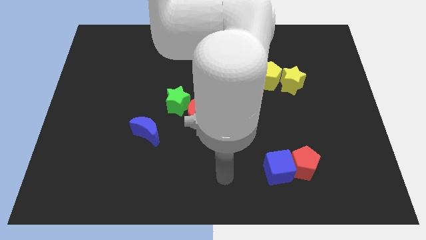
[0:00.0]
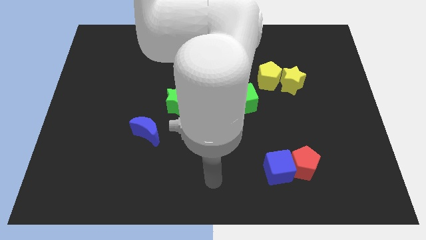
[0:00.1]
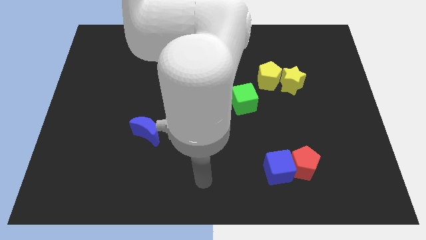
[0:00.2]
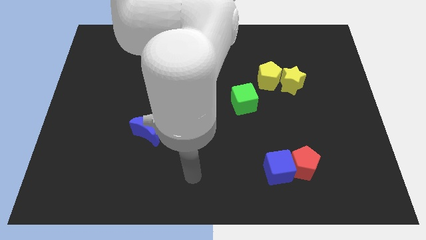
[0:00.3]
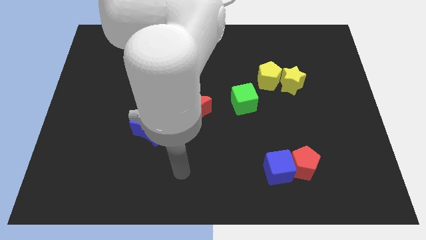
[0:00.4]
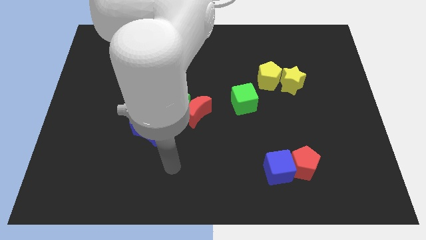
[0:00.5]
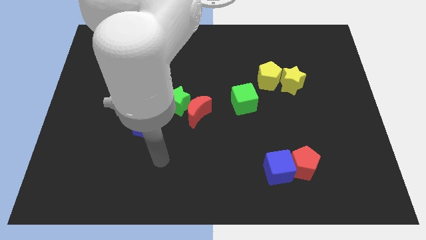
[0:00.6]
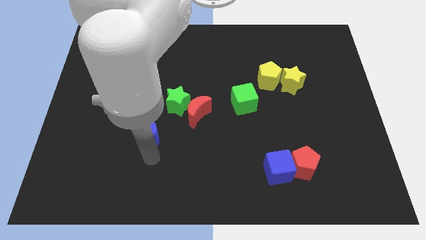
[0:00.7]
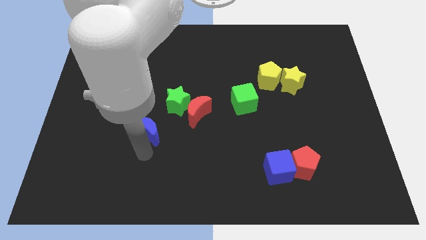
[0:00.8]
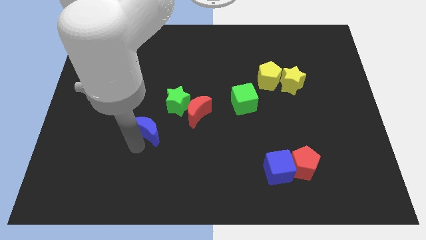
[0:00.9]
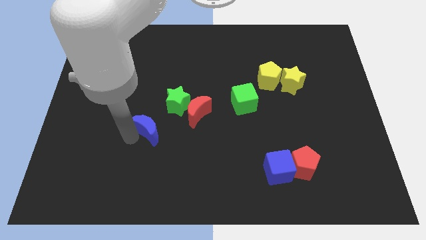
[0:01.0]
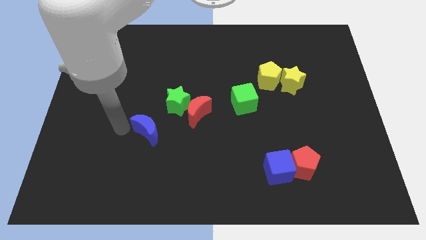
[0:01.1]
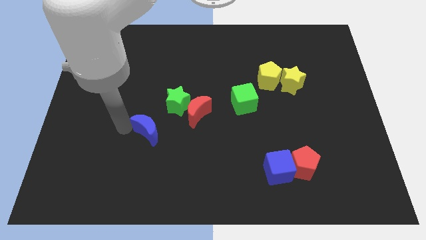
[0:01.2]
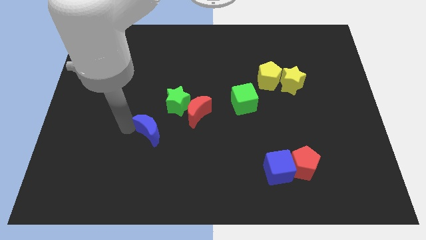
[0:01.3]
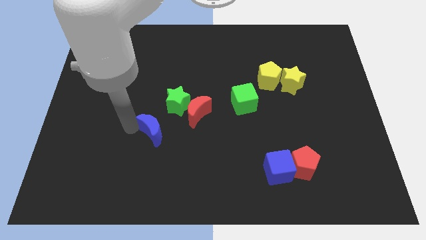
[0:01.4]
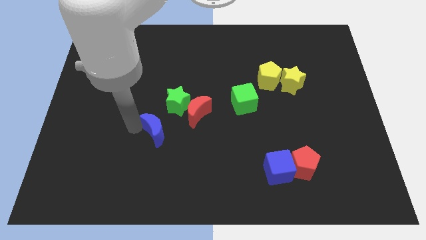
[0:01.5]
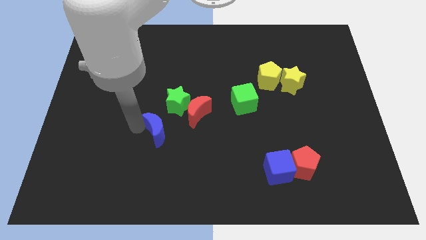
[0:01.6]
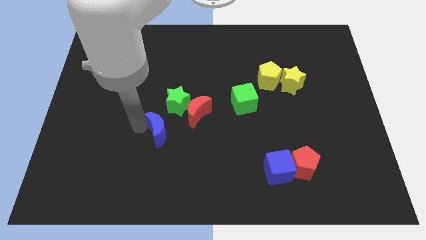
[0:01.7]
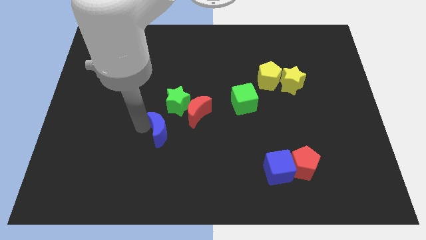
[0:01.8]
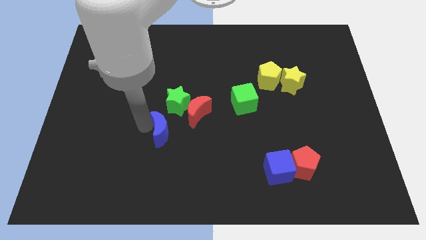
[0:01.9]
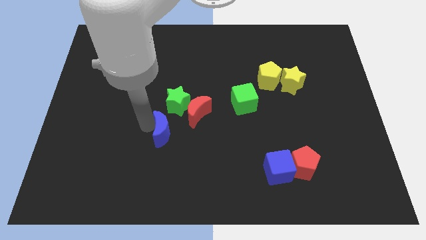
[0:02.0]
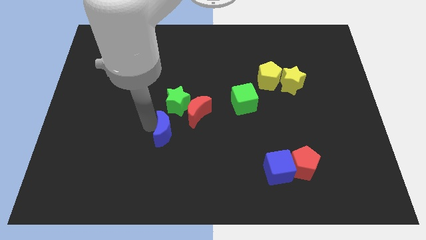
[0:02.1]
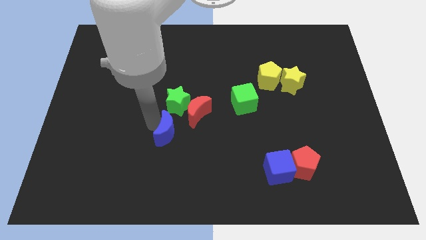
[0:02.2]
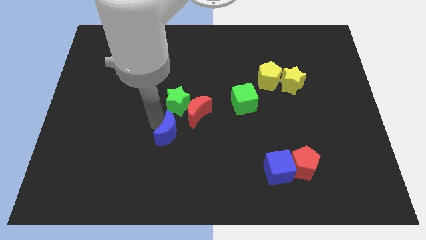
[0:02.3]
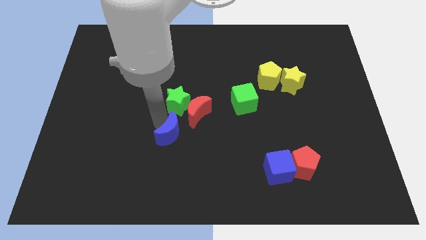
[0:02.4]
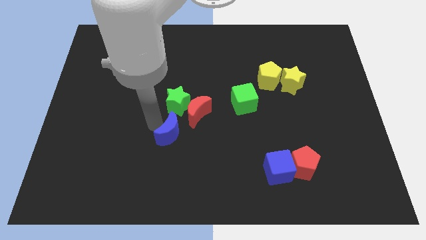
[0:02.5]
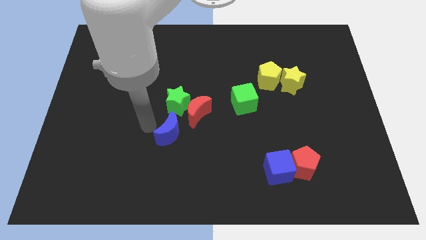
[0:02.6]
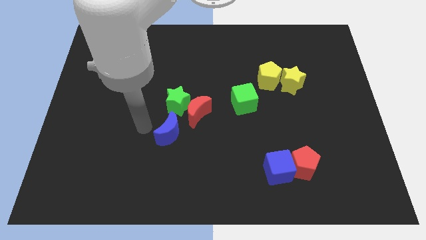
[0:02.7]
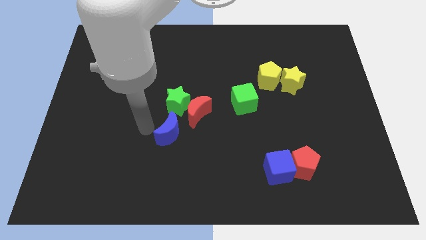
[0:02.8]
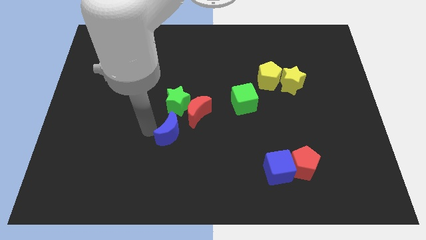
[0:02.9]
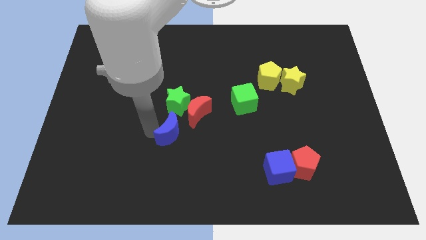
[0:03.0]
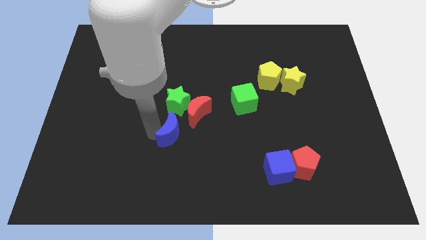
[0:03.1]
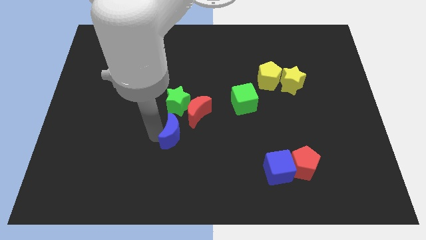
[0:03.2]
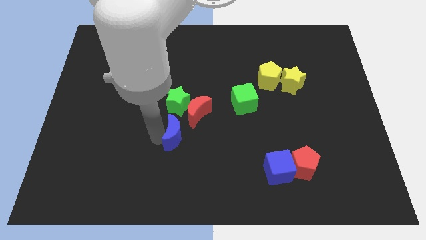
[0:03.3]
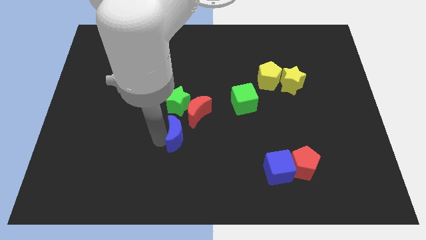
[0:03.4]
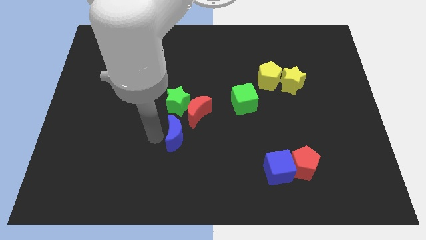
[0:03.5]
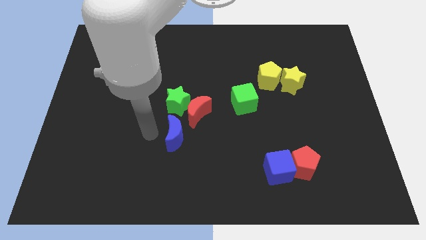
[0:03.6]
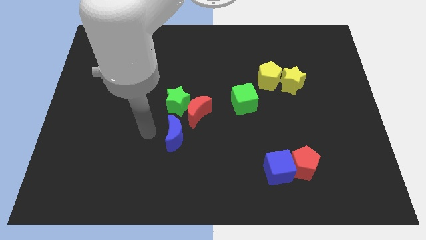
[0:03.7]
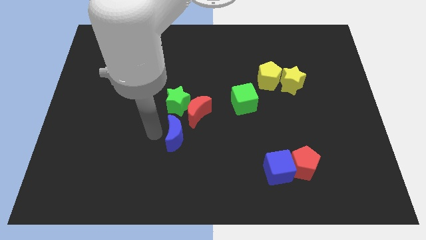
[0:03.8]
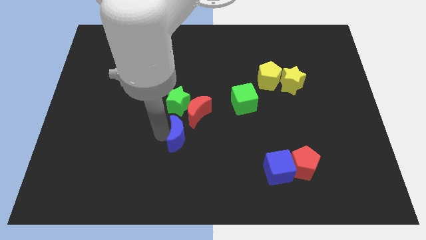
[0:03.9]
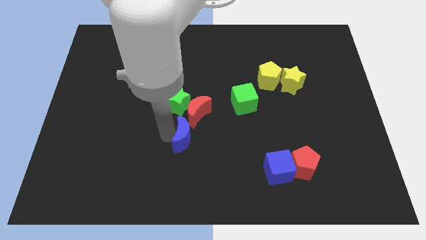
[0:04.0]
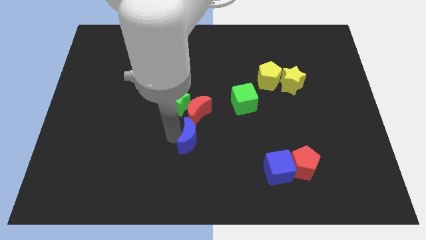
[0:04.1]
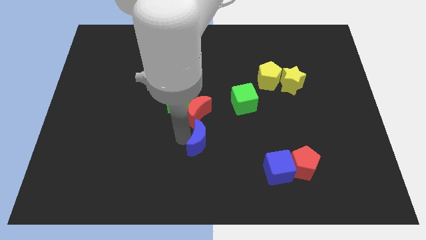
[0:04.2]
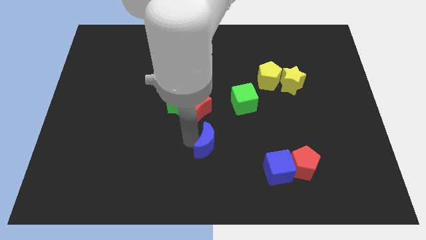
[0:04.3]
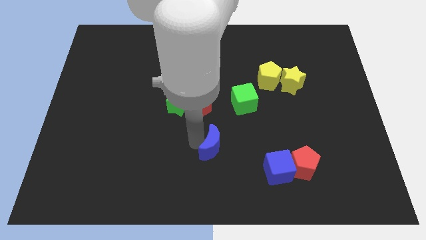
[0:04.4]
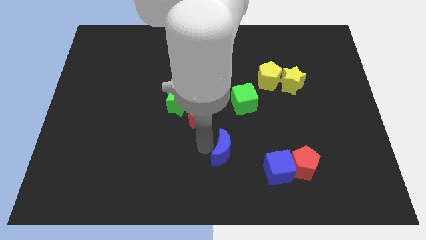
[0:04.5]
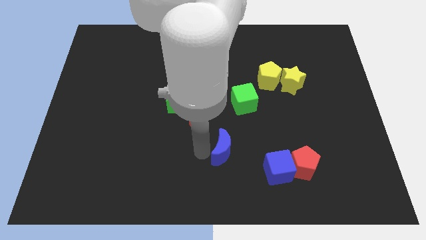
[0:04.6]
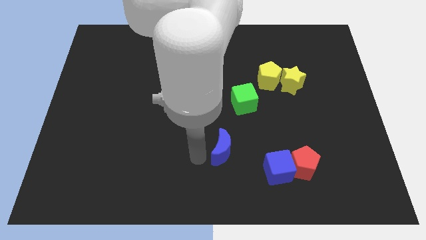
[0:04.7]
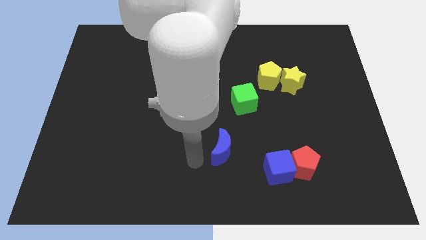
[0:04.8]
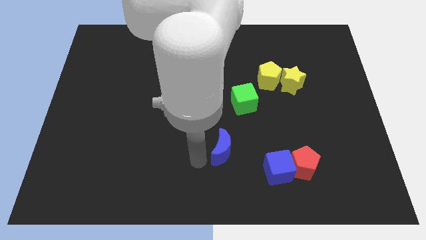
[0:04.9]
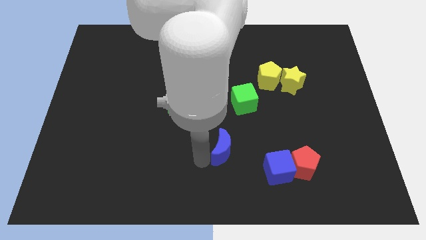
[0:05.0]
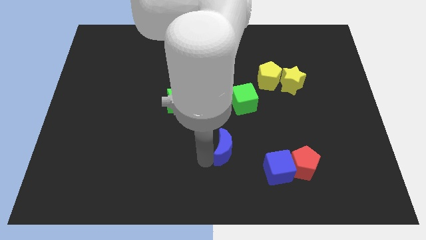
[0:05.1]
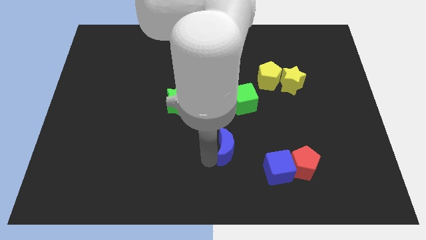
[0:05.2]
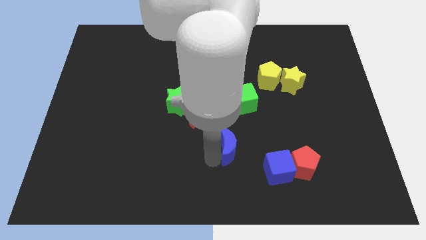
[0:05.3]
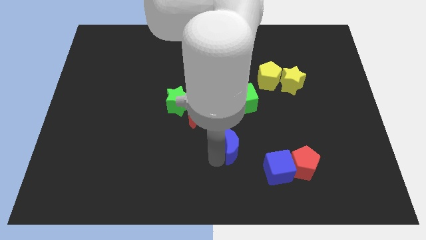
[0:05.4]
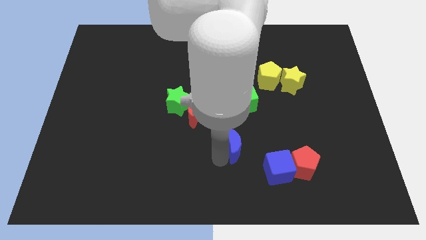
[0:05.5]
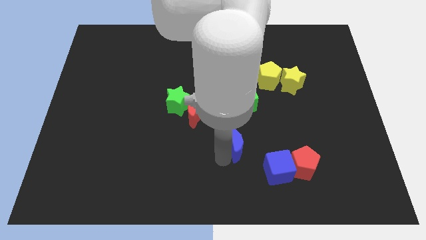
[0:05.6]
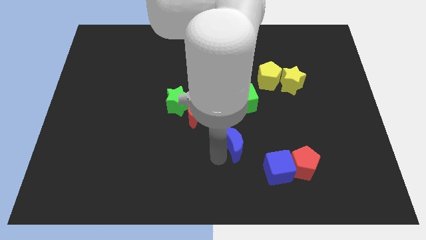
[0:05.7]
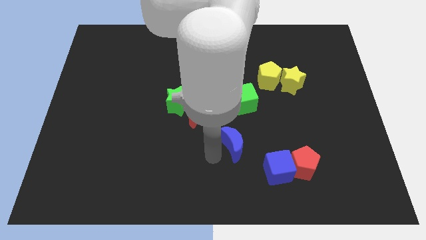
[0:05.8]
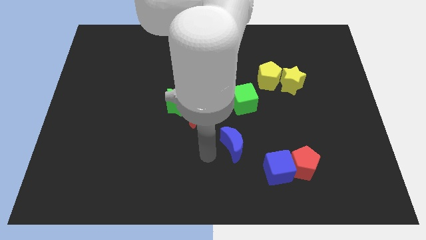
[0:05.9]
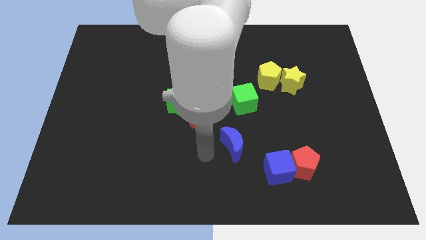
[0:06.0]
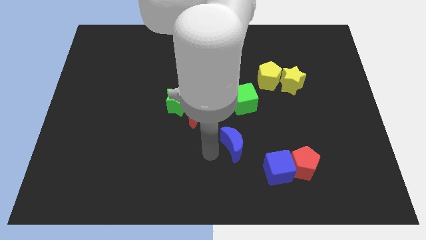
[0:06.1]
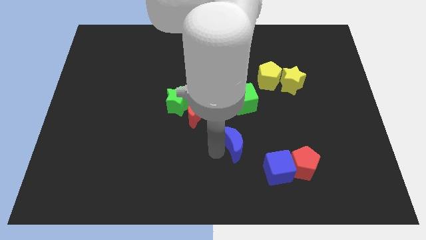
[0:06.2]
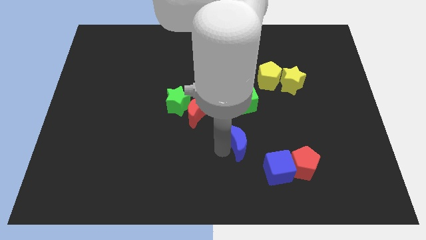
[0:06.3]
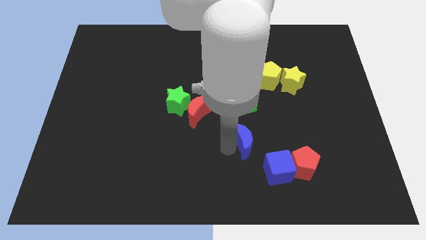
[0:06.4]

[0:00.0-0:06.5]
move the blue moon to the right

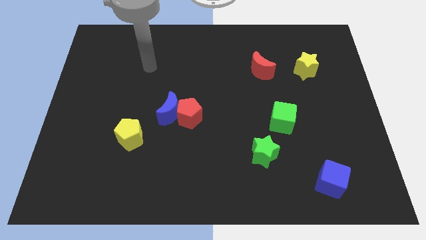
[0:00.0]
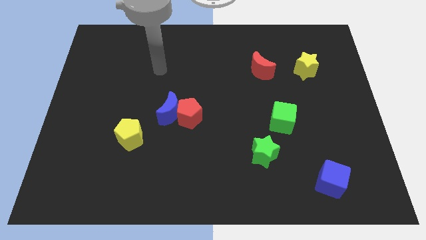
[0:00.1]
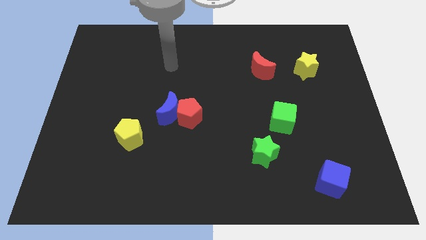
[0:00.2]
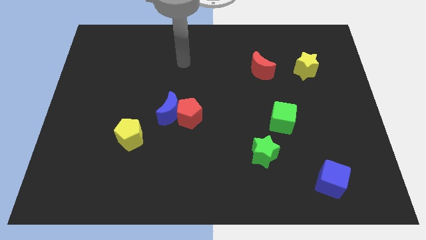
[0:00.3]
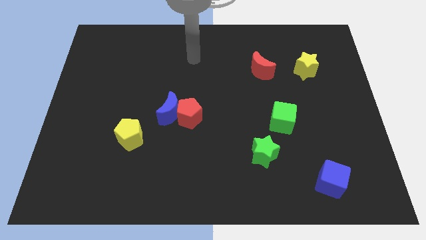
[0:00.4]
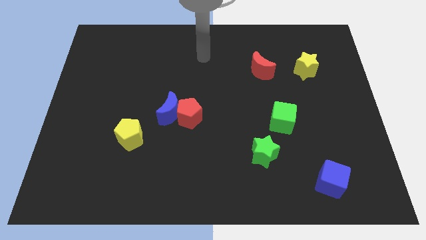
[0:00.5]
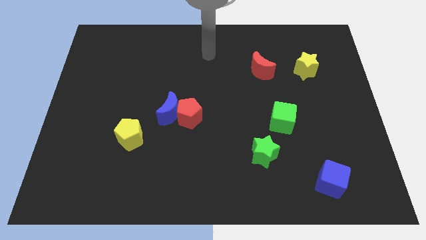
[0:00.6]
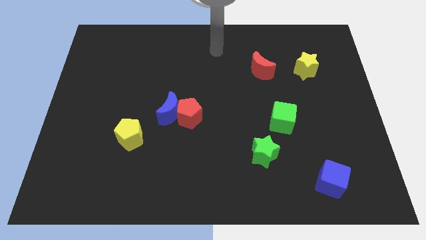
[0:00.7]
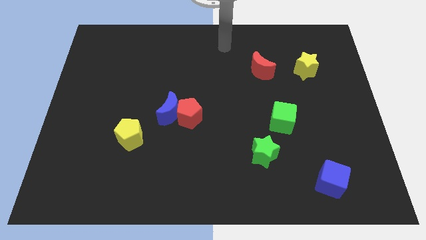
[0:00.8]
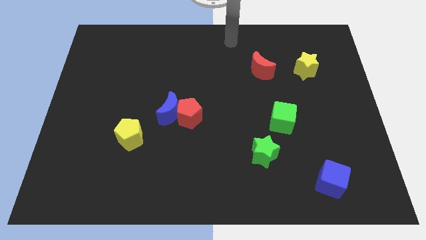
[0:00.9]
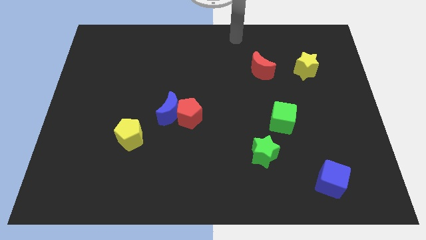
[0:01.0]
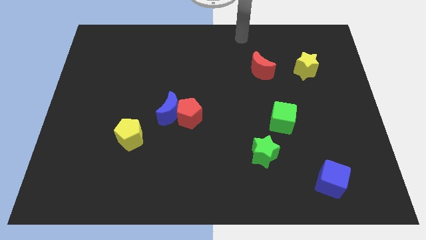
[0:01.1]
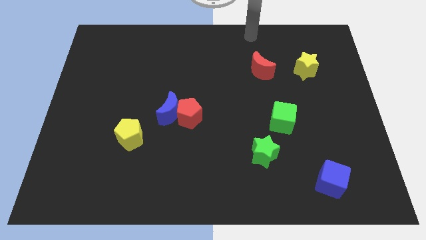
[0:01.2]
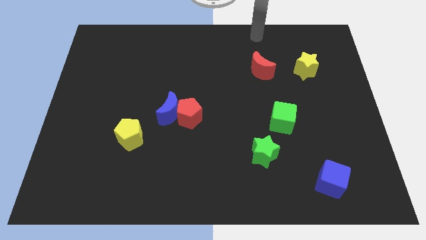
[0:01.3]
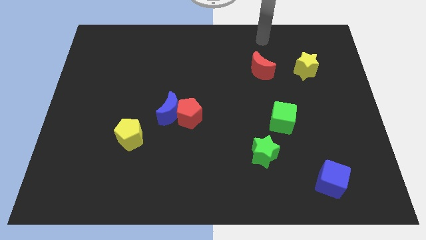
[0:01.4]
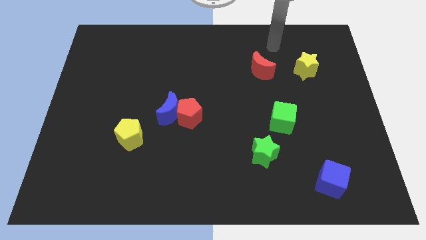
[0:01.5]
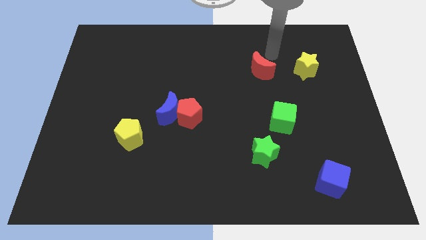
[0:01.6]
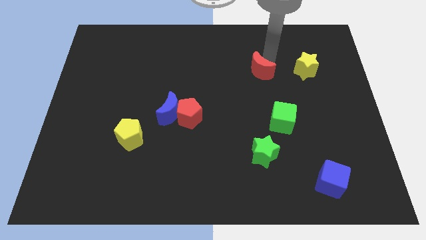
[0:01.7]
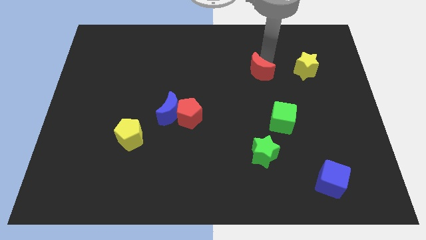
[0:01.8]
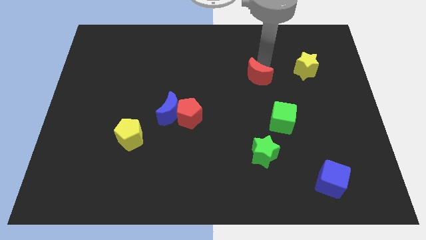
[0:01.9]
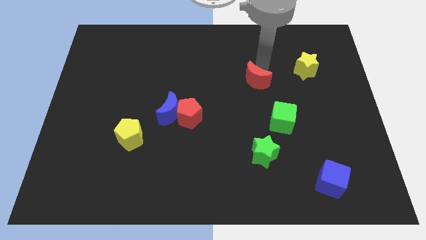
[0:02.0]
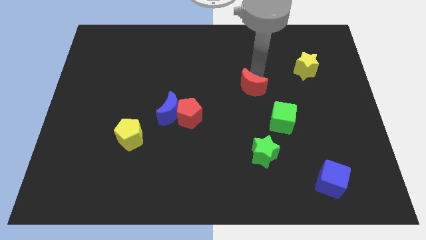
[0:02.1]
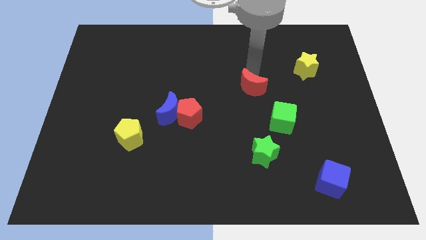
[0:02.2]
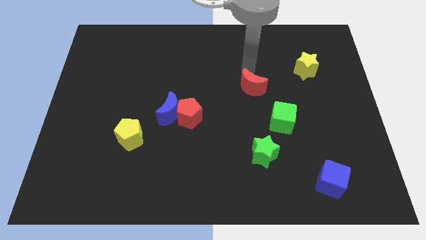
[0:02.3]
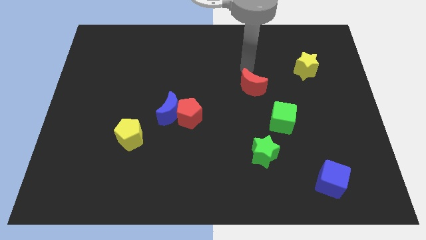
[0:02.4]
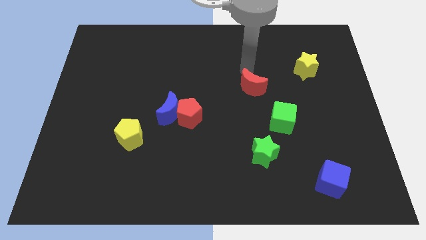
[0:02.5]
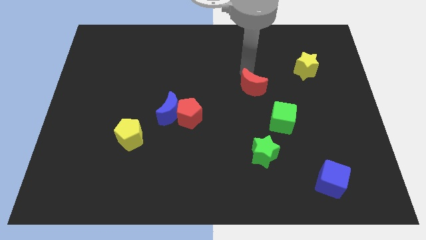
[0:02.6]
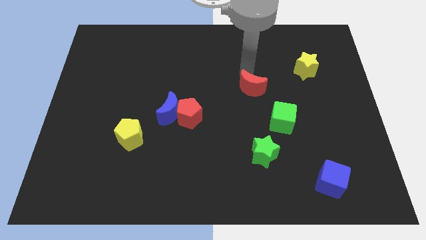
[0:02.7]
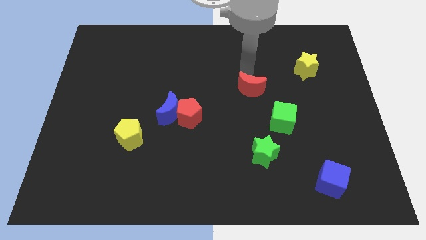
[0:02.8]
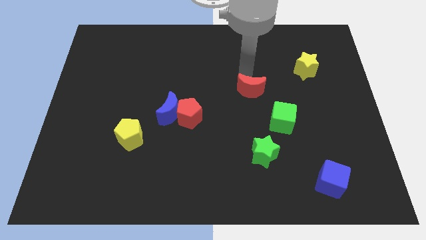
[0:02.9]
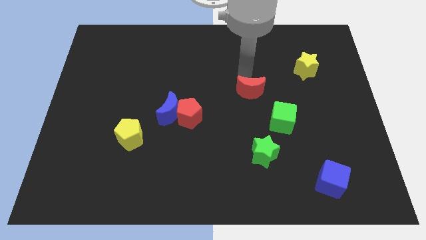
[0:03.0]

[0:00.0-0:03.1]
slide the red moon a little downwards
